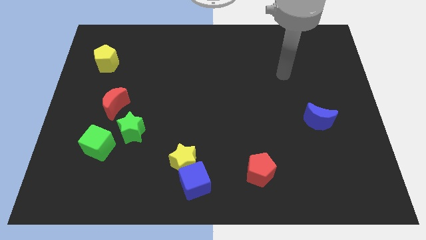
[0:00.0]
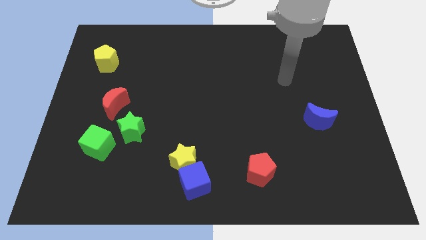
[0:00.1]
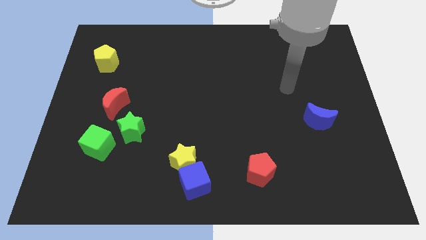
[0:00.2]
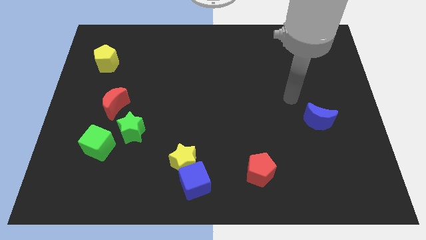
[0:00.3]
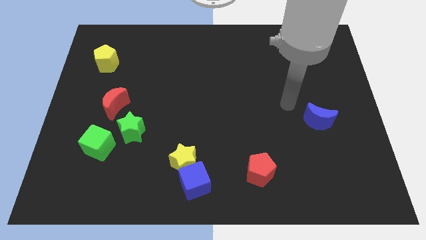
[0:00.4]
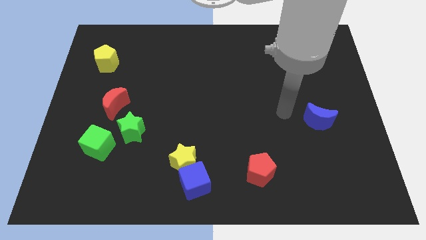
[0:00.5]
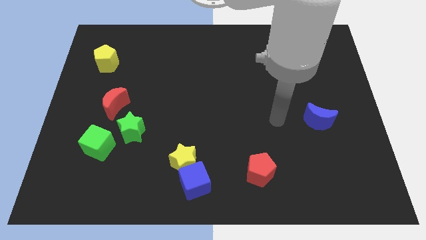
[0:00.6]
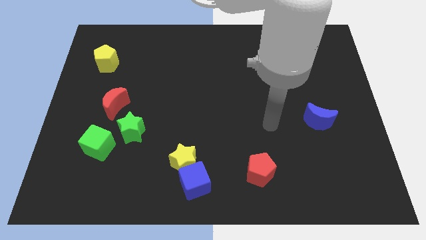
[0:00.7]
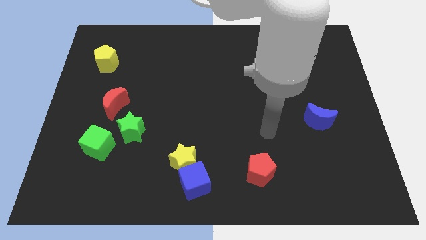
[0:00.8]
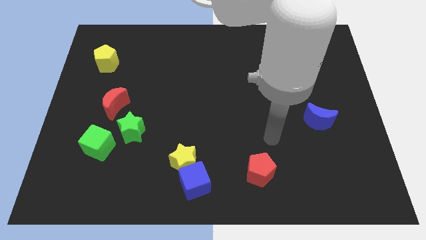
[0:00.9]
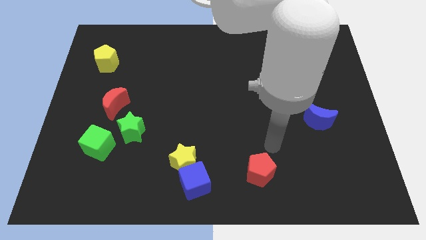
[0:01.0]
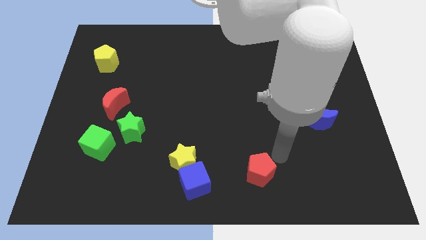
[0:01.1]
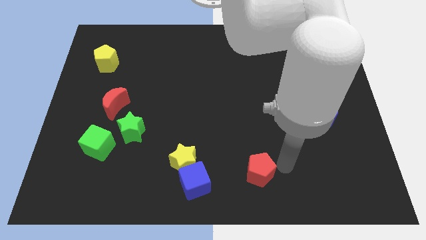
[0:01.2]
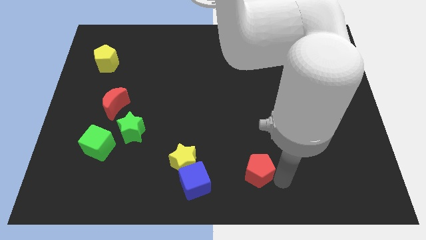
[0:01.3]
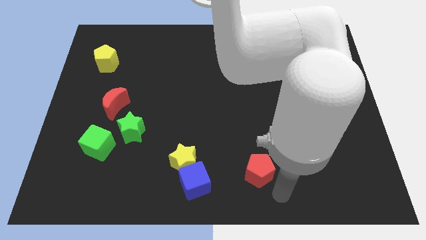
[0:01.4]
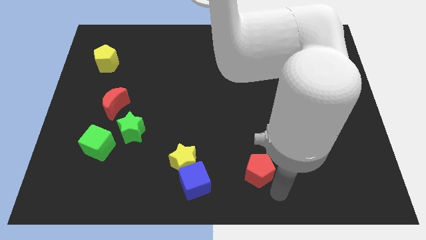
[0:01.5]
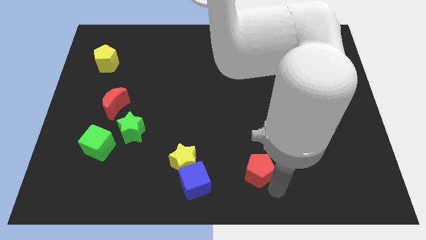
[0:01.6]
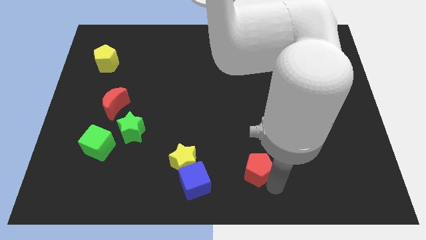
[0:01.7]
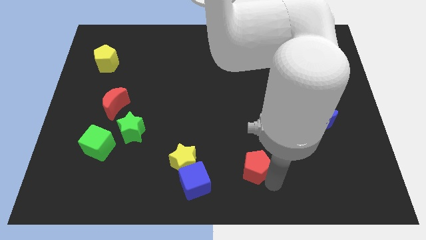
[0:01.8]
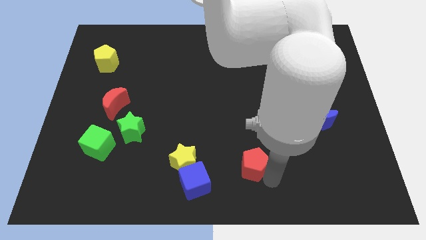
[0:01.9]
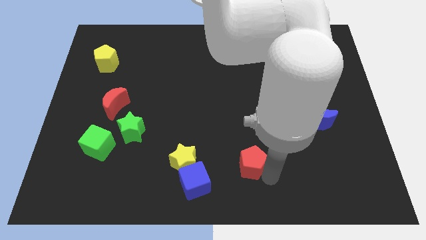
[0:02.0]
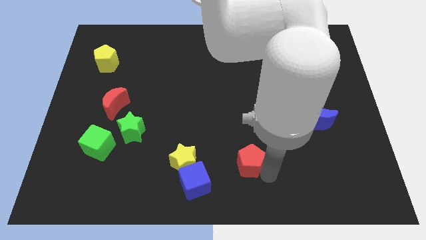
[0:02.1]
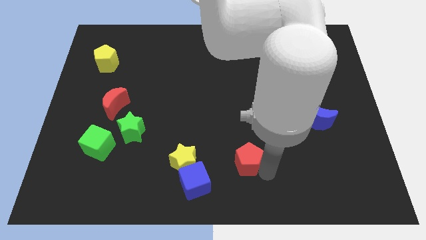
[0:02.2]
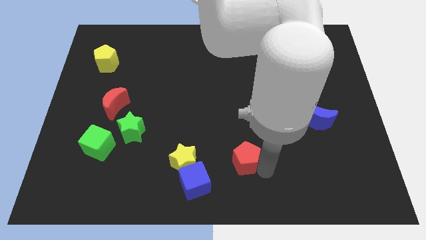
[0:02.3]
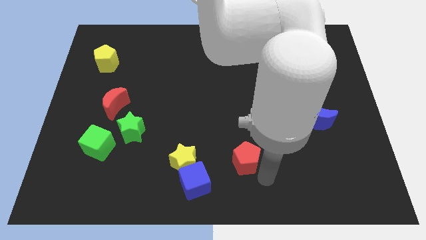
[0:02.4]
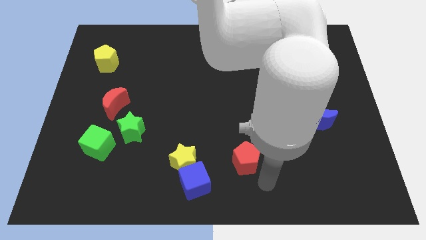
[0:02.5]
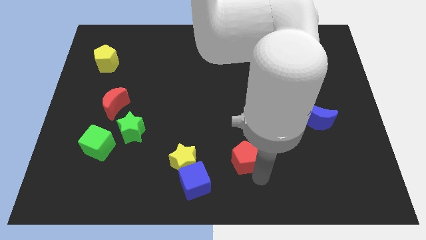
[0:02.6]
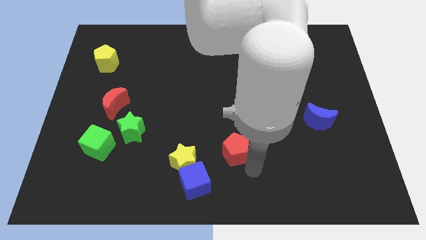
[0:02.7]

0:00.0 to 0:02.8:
move the red pentagon a little diagonally up and left

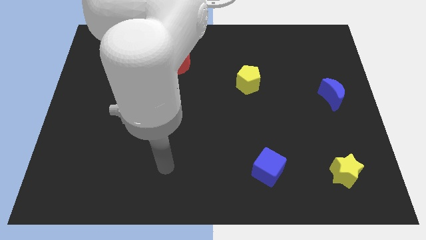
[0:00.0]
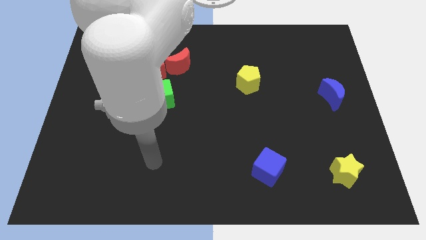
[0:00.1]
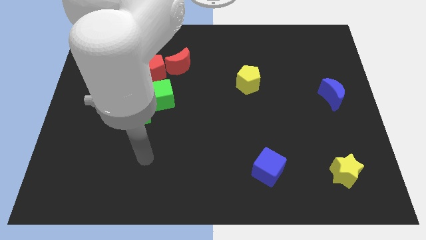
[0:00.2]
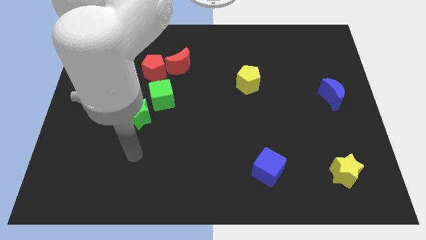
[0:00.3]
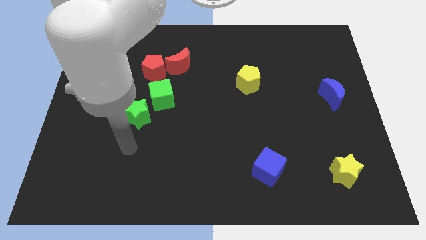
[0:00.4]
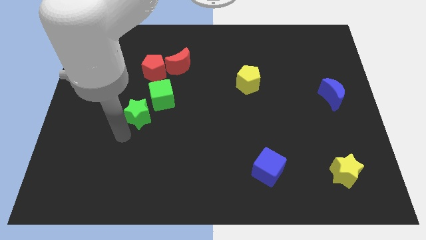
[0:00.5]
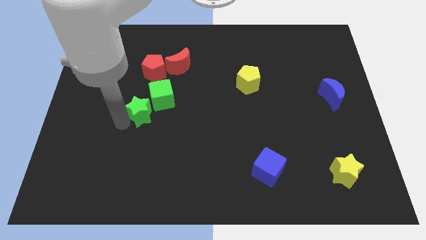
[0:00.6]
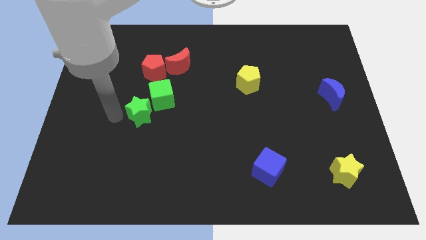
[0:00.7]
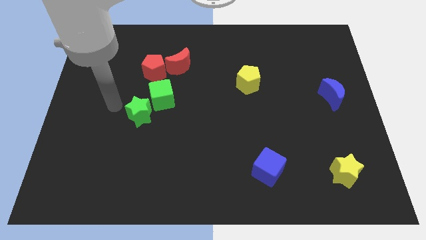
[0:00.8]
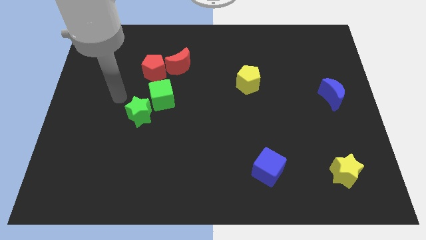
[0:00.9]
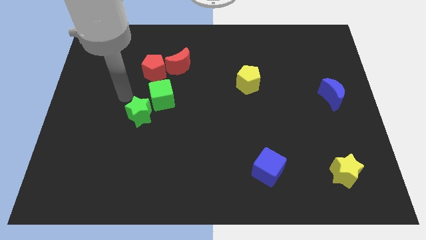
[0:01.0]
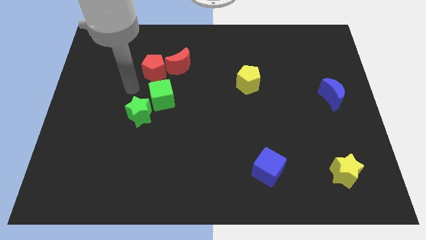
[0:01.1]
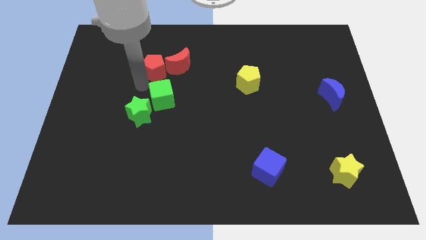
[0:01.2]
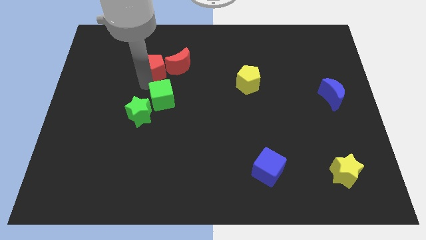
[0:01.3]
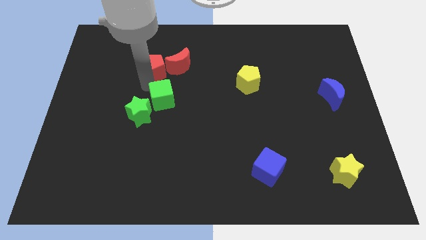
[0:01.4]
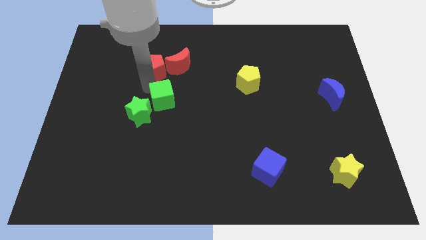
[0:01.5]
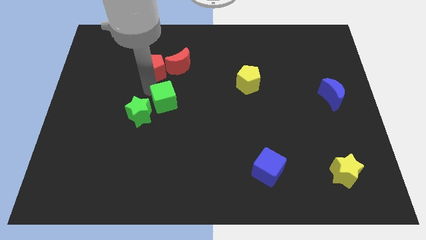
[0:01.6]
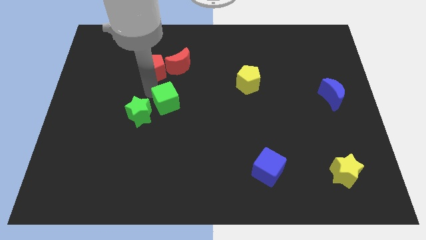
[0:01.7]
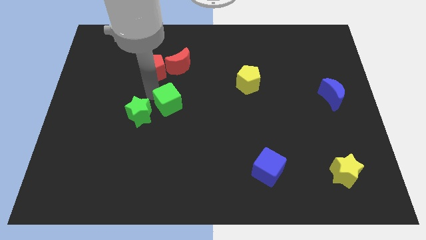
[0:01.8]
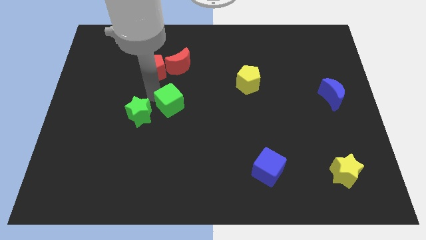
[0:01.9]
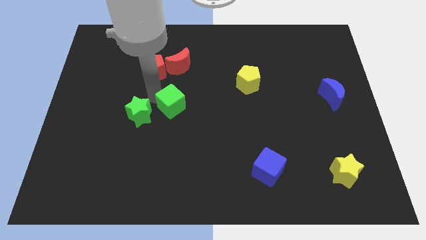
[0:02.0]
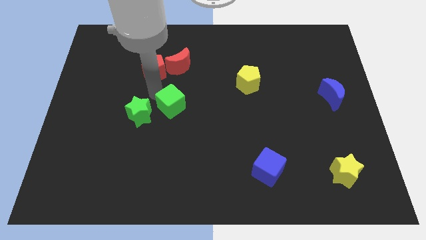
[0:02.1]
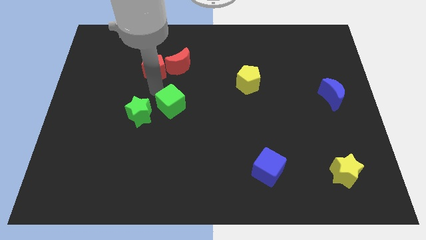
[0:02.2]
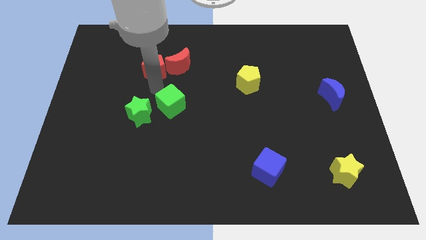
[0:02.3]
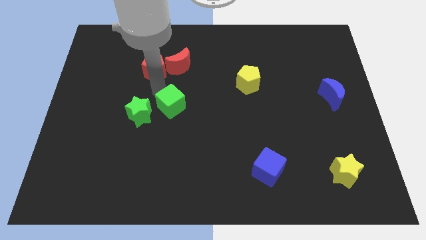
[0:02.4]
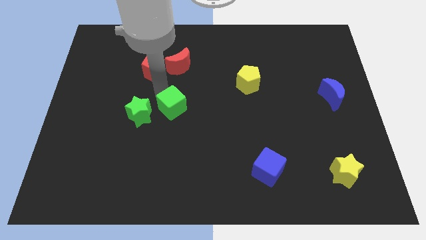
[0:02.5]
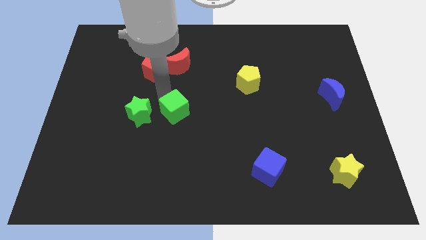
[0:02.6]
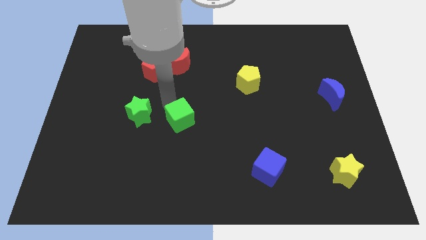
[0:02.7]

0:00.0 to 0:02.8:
push the green cube a little bit downwards and then right

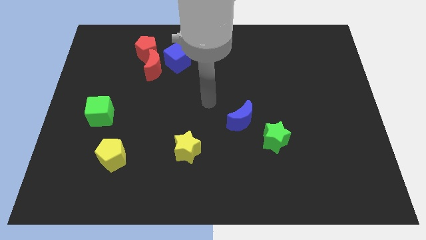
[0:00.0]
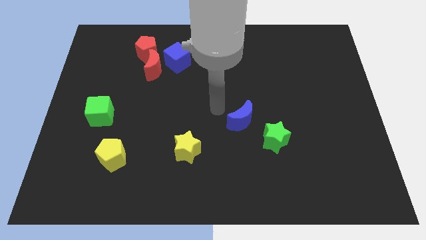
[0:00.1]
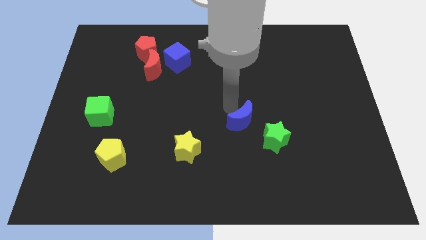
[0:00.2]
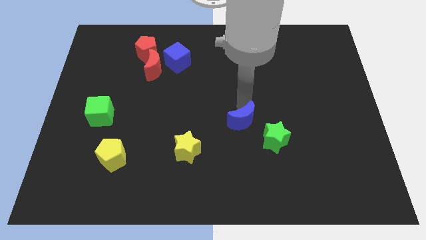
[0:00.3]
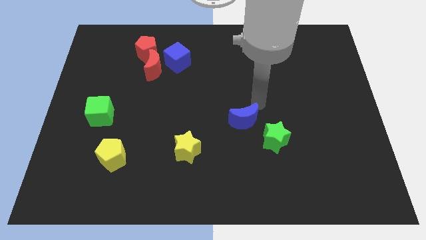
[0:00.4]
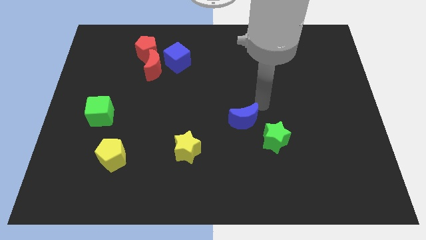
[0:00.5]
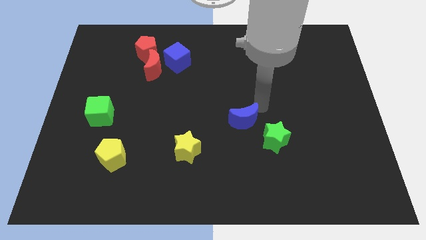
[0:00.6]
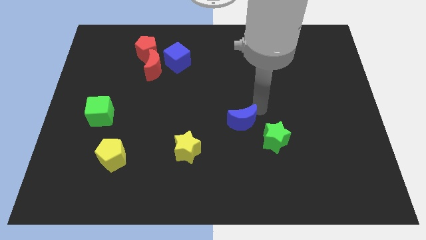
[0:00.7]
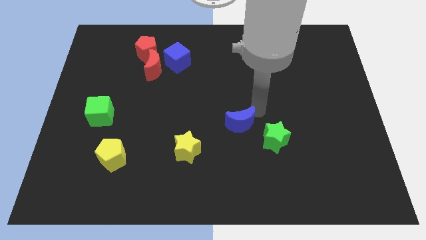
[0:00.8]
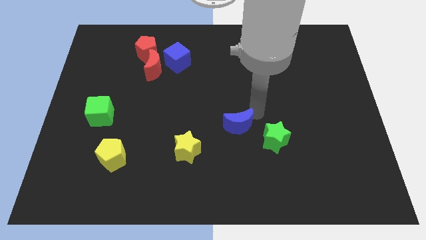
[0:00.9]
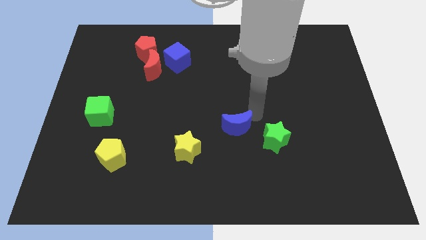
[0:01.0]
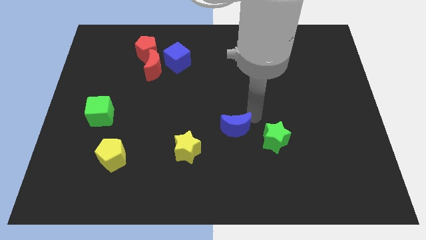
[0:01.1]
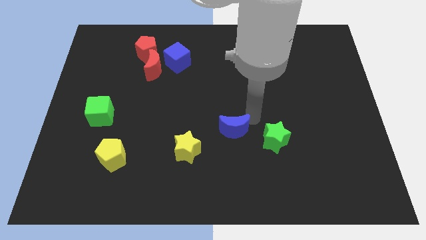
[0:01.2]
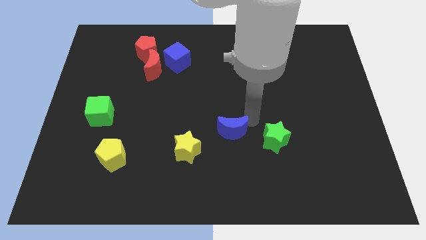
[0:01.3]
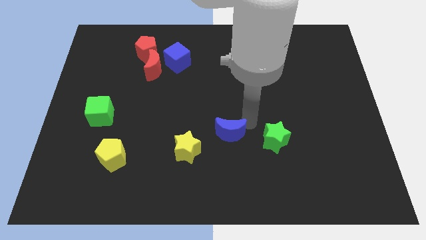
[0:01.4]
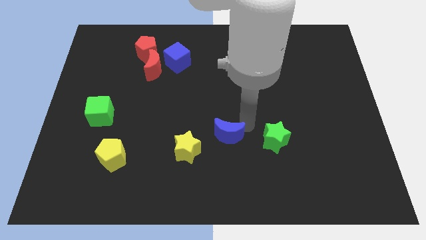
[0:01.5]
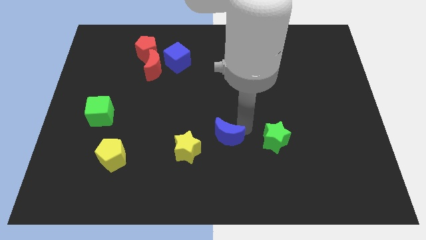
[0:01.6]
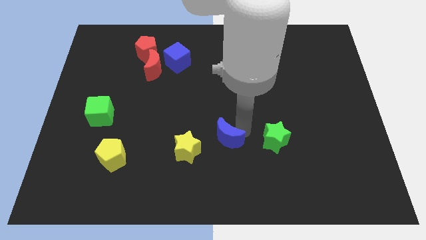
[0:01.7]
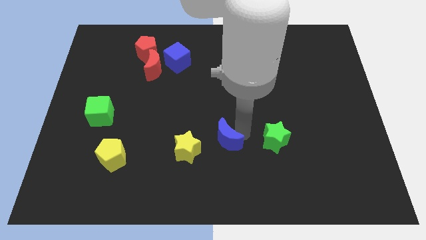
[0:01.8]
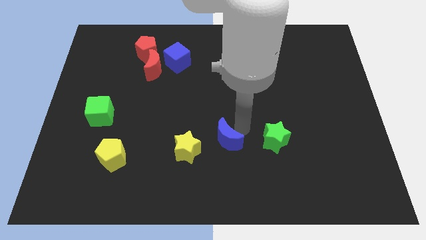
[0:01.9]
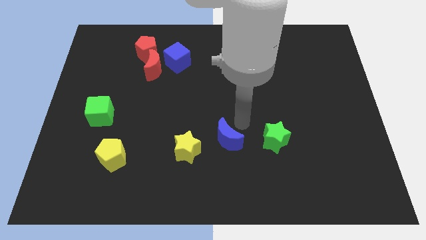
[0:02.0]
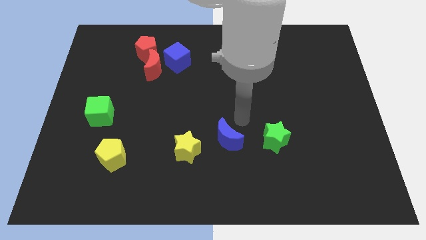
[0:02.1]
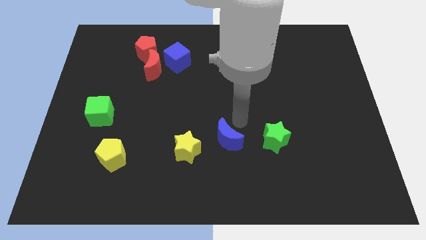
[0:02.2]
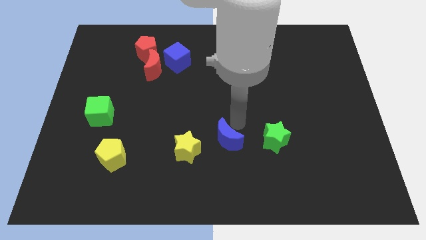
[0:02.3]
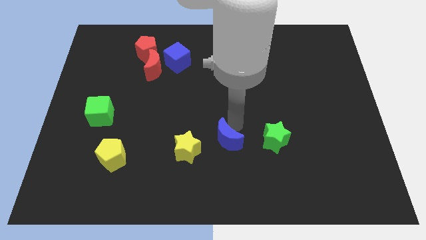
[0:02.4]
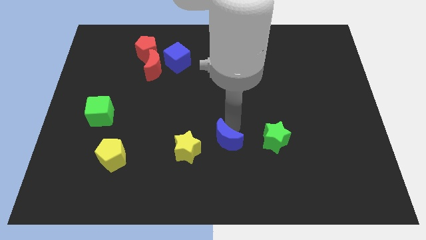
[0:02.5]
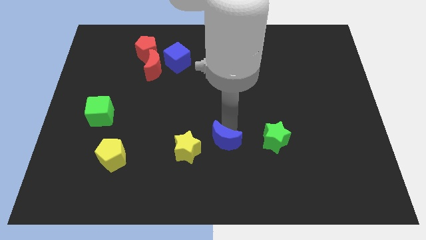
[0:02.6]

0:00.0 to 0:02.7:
slightly slide the blue moon downwards and to the left
